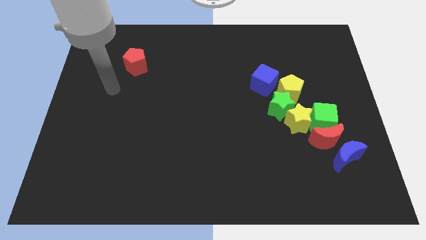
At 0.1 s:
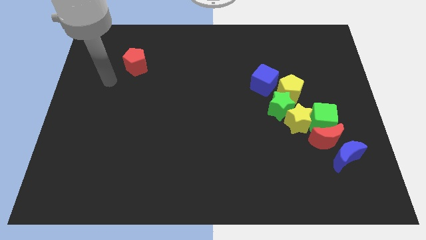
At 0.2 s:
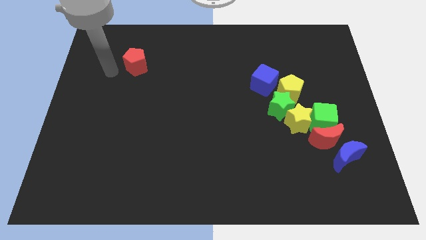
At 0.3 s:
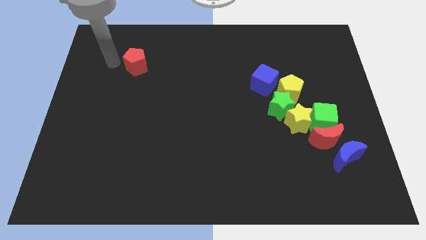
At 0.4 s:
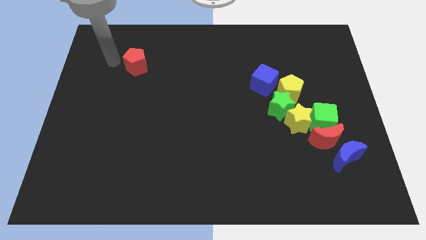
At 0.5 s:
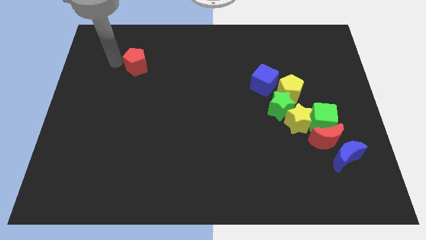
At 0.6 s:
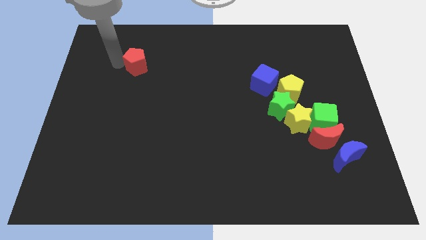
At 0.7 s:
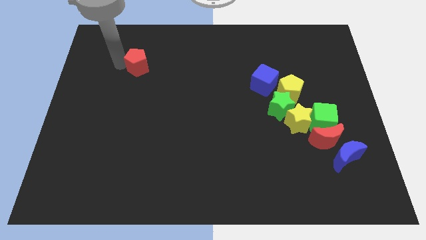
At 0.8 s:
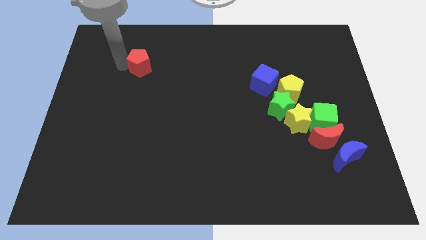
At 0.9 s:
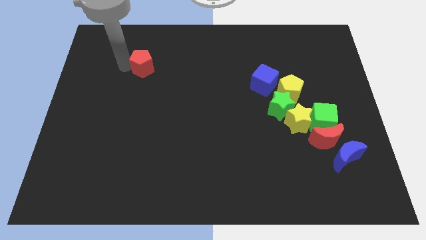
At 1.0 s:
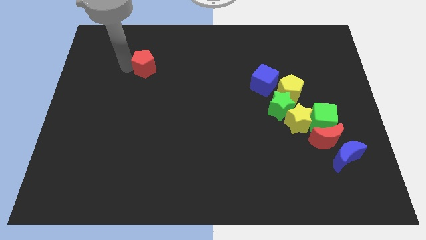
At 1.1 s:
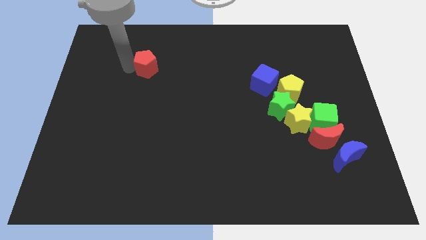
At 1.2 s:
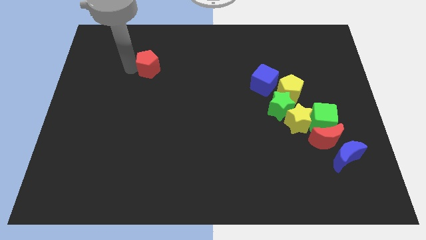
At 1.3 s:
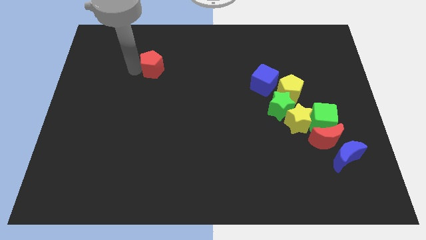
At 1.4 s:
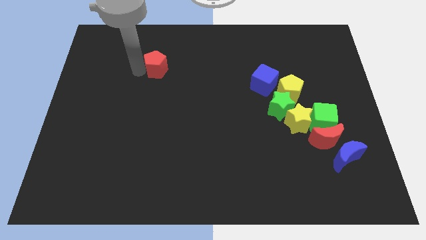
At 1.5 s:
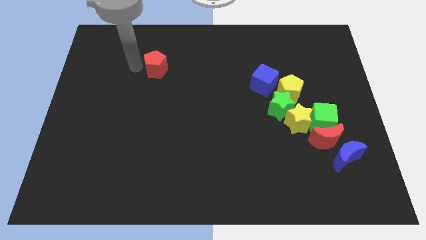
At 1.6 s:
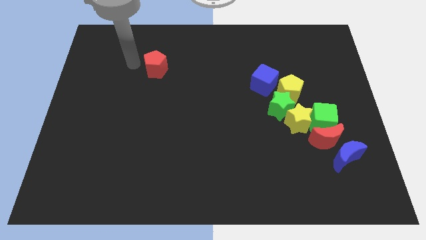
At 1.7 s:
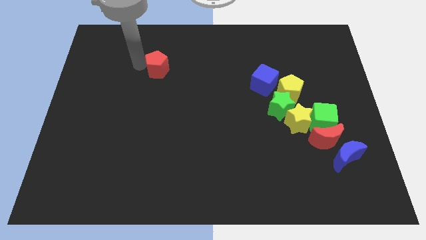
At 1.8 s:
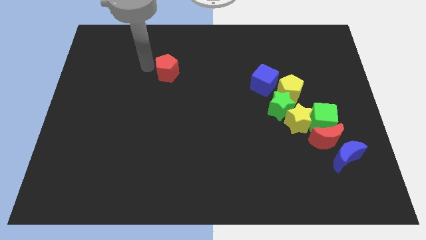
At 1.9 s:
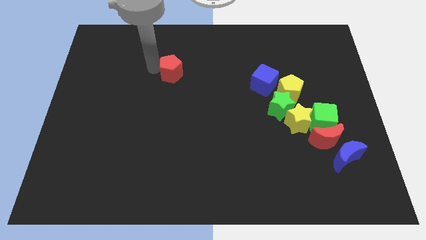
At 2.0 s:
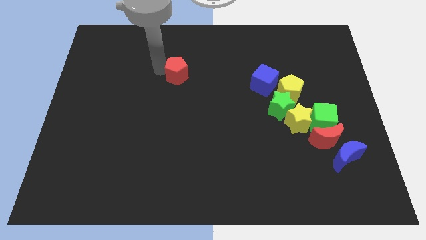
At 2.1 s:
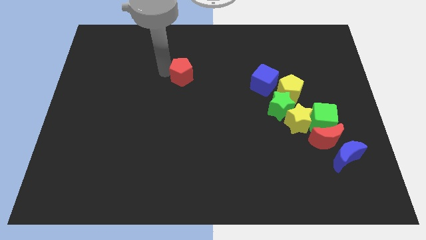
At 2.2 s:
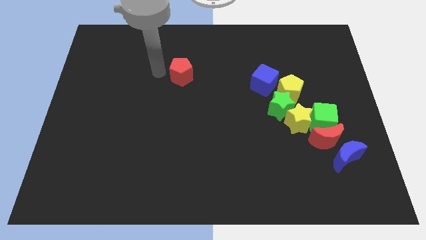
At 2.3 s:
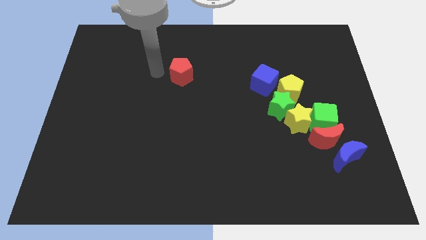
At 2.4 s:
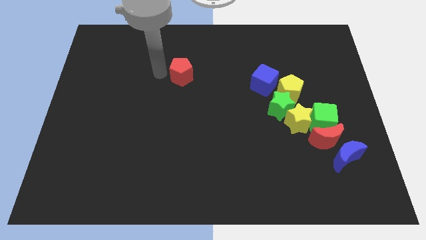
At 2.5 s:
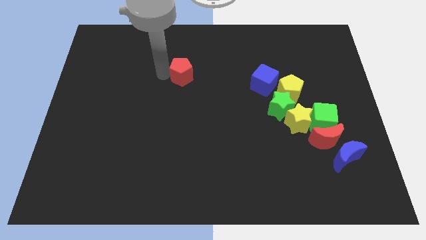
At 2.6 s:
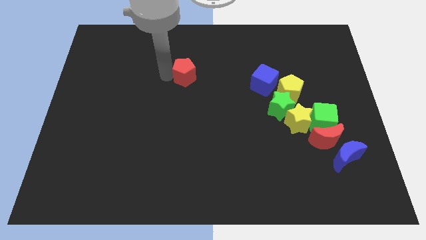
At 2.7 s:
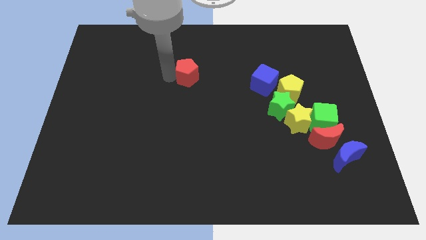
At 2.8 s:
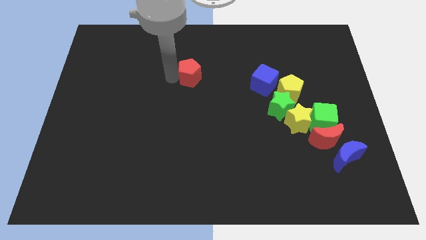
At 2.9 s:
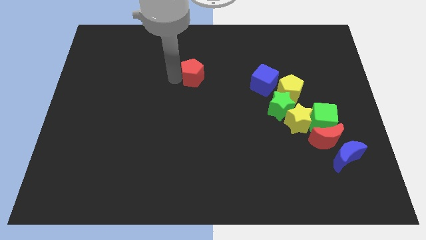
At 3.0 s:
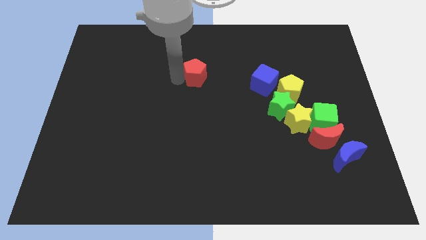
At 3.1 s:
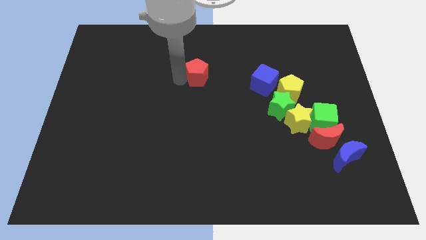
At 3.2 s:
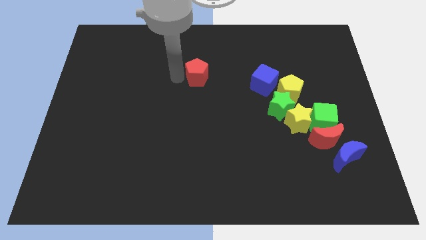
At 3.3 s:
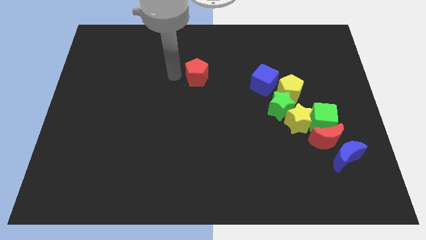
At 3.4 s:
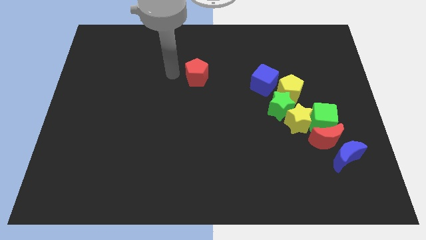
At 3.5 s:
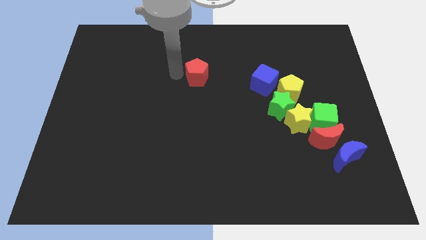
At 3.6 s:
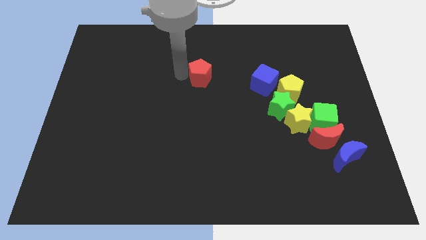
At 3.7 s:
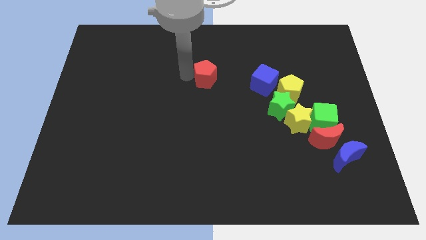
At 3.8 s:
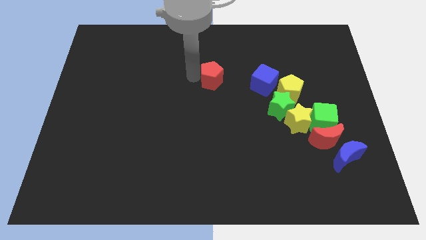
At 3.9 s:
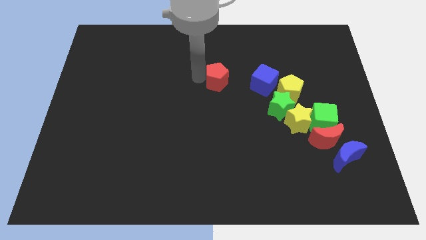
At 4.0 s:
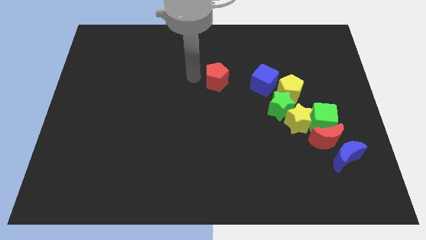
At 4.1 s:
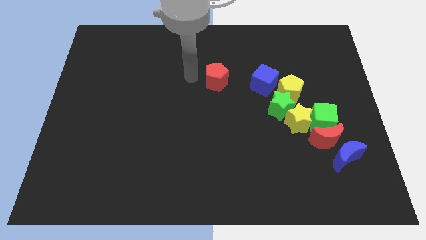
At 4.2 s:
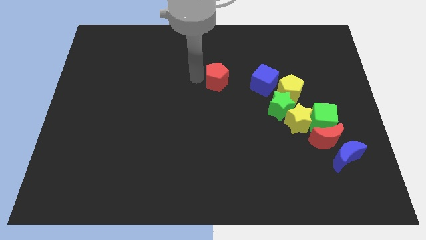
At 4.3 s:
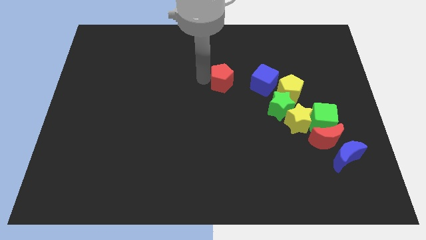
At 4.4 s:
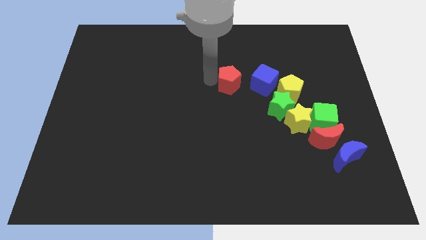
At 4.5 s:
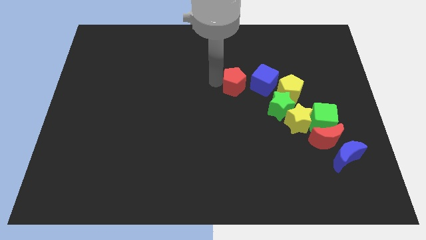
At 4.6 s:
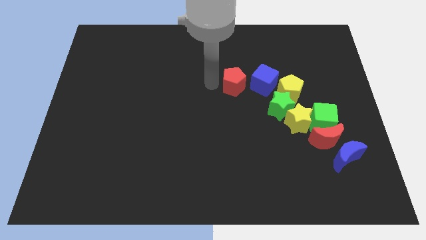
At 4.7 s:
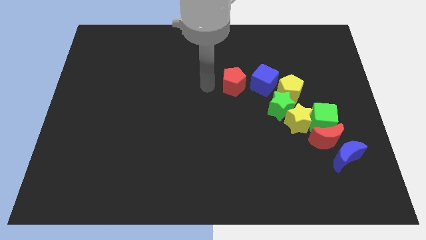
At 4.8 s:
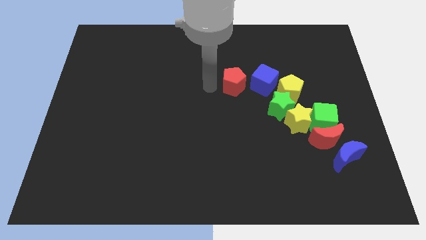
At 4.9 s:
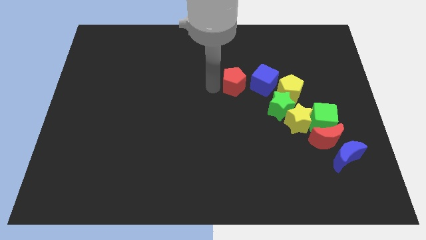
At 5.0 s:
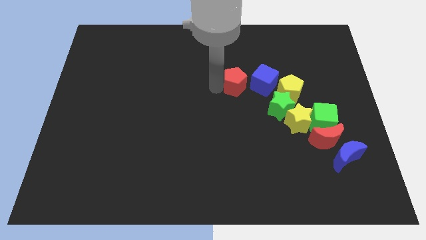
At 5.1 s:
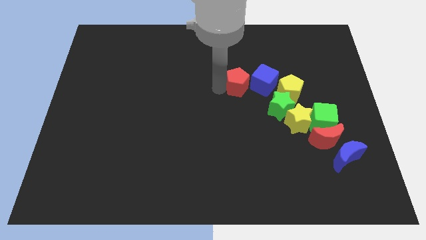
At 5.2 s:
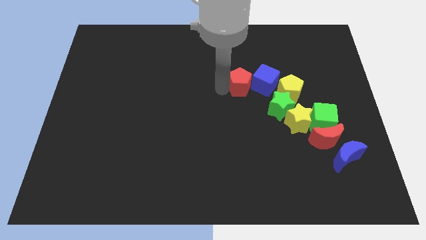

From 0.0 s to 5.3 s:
put the red pentagon to the blue cube

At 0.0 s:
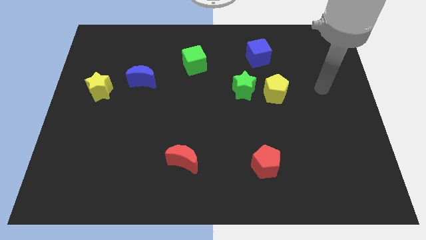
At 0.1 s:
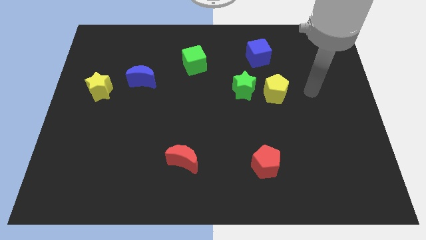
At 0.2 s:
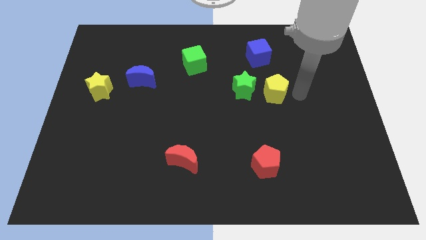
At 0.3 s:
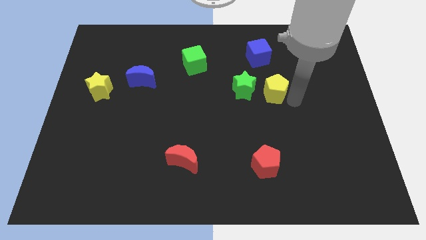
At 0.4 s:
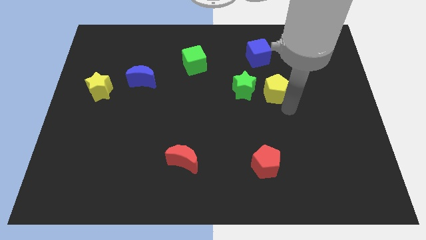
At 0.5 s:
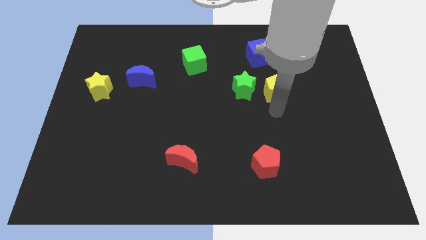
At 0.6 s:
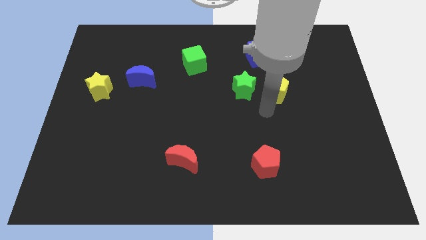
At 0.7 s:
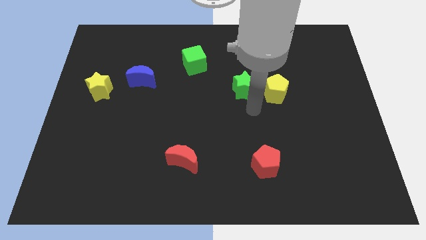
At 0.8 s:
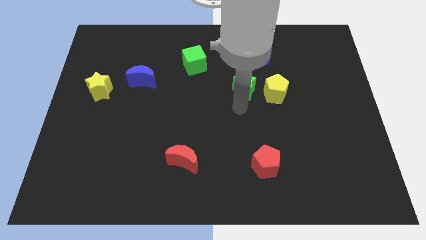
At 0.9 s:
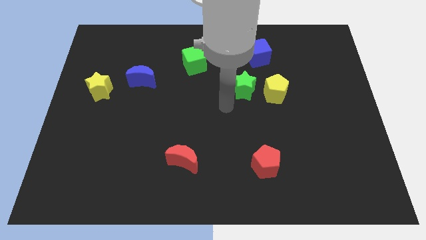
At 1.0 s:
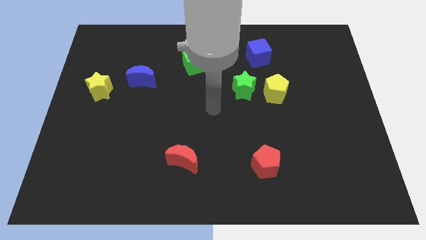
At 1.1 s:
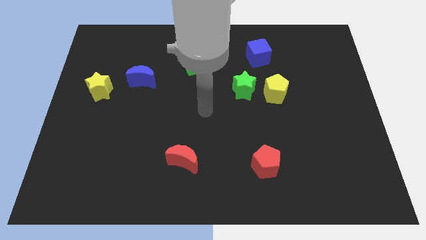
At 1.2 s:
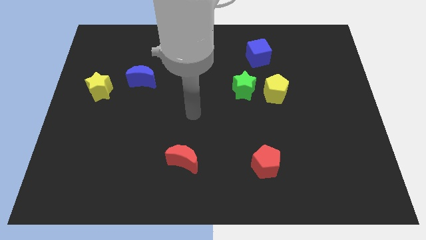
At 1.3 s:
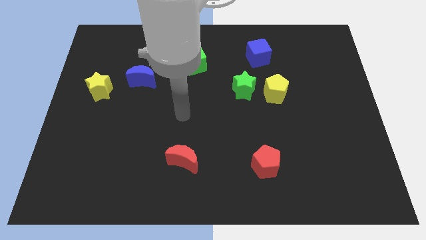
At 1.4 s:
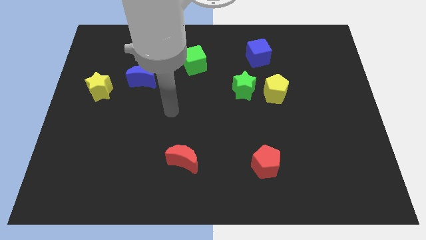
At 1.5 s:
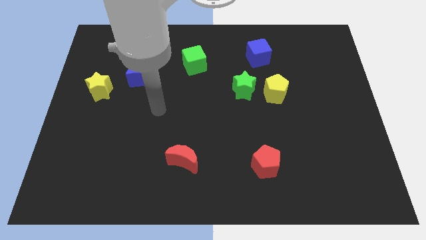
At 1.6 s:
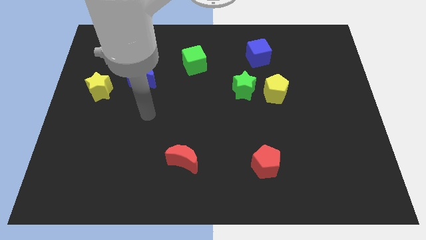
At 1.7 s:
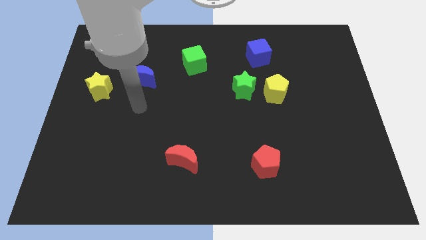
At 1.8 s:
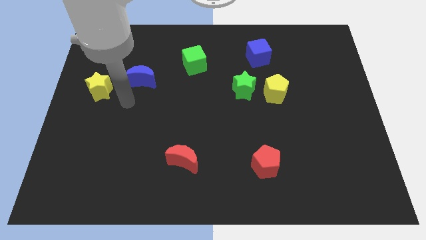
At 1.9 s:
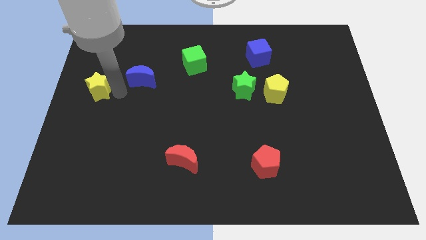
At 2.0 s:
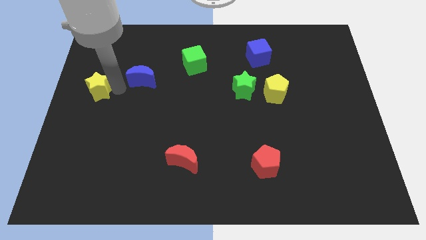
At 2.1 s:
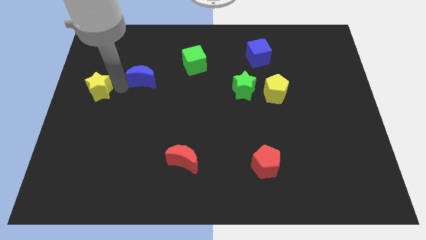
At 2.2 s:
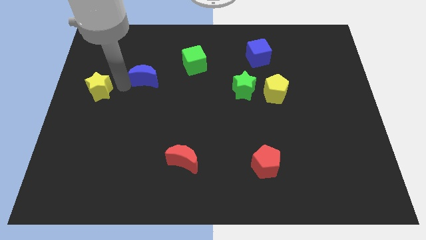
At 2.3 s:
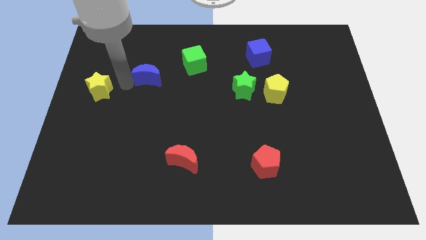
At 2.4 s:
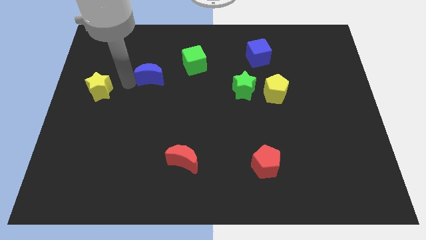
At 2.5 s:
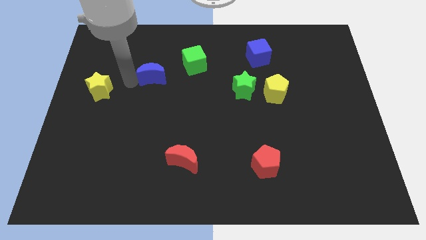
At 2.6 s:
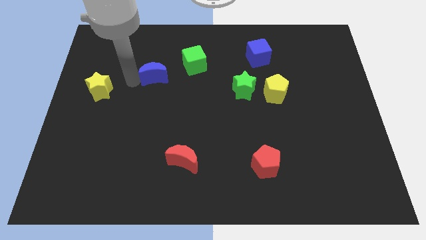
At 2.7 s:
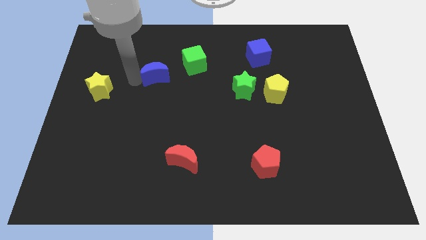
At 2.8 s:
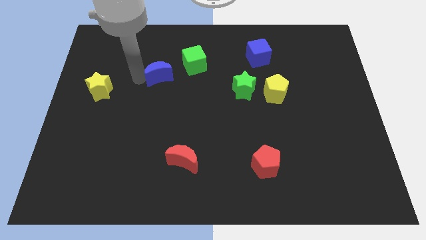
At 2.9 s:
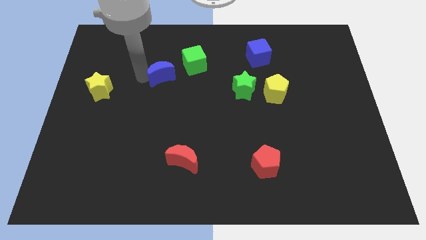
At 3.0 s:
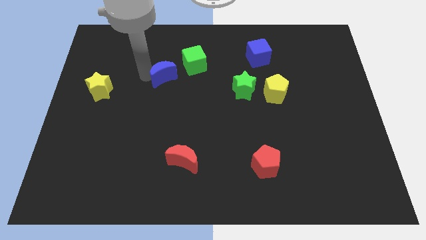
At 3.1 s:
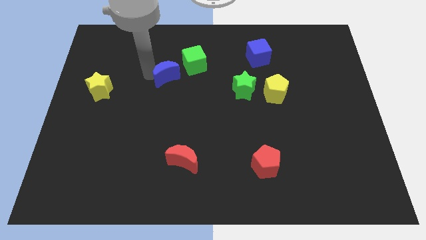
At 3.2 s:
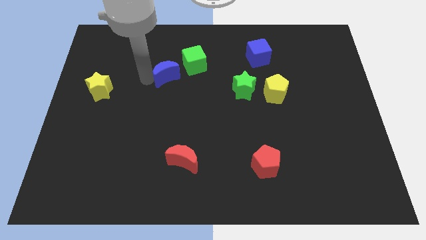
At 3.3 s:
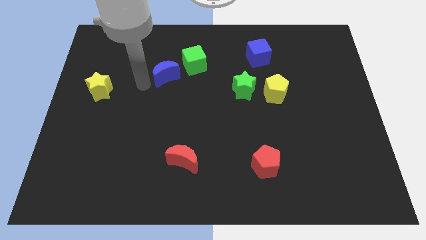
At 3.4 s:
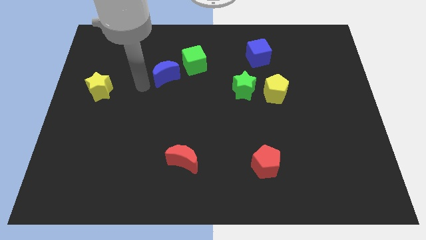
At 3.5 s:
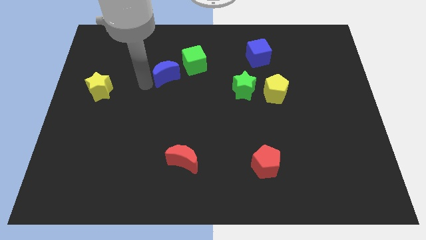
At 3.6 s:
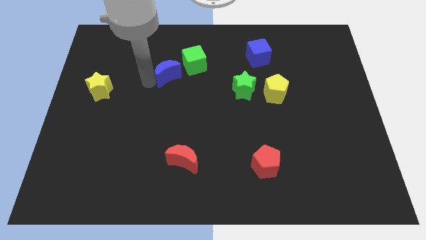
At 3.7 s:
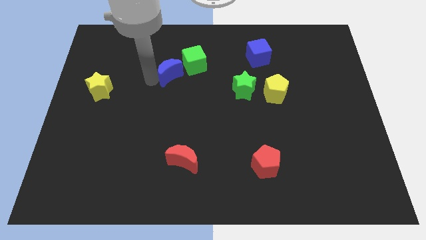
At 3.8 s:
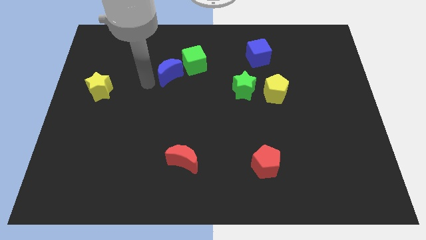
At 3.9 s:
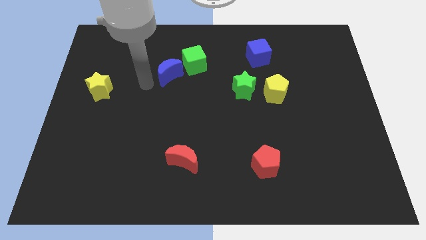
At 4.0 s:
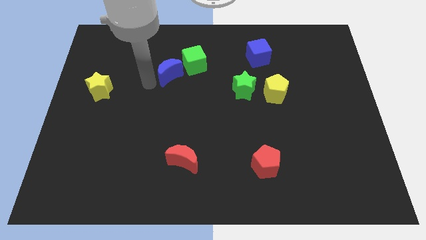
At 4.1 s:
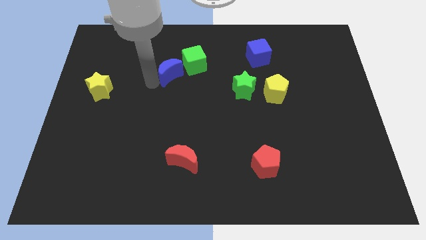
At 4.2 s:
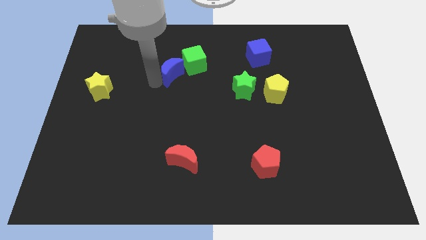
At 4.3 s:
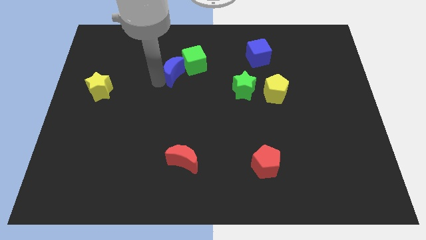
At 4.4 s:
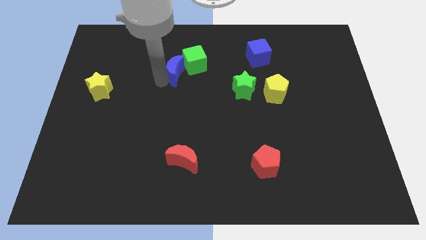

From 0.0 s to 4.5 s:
move the blue moon towards the green cube
